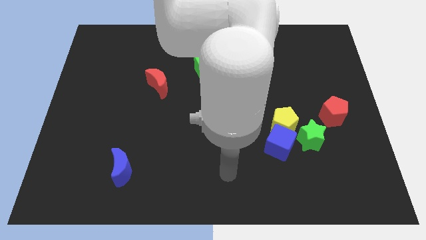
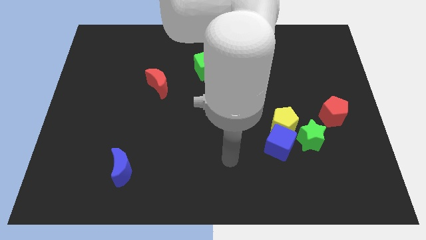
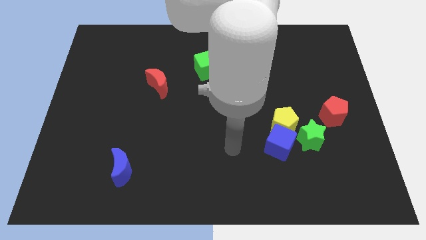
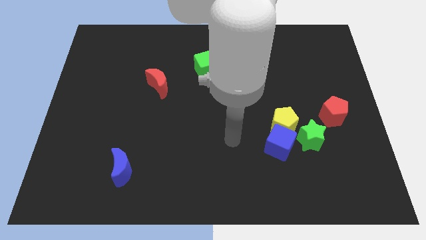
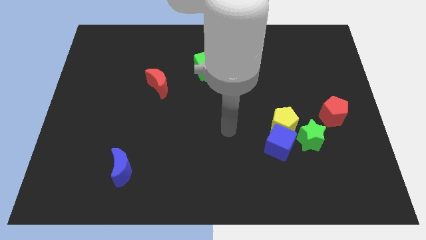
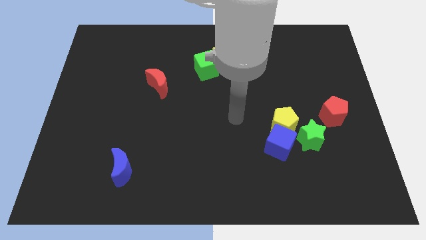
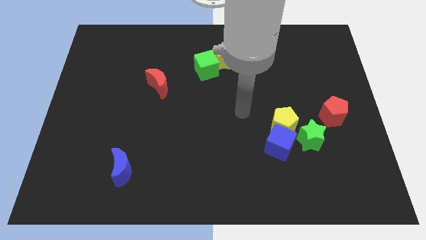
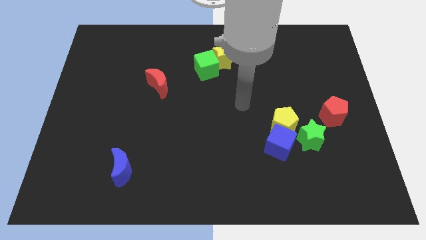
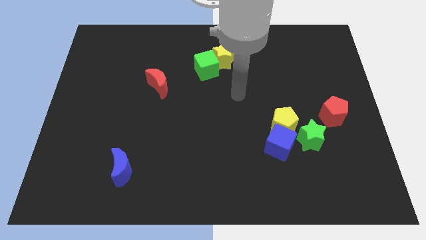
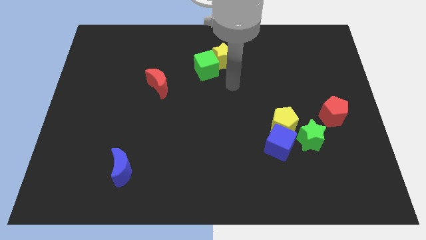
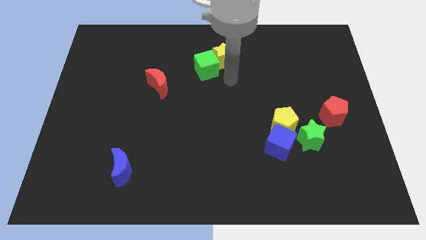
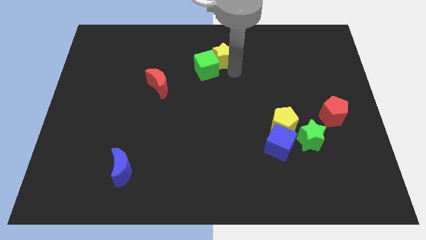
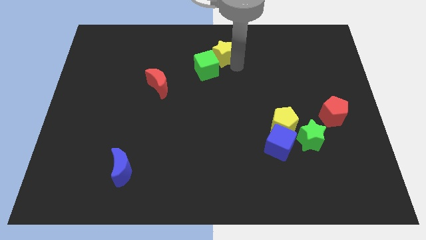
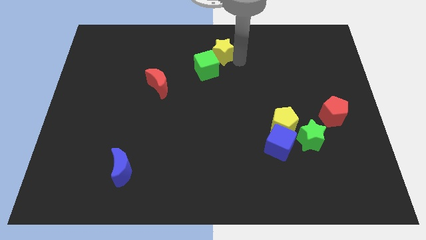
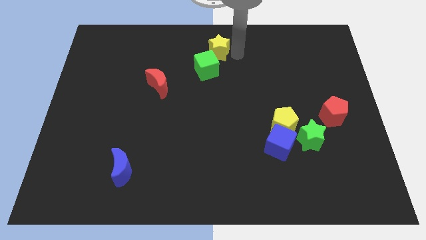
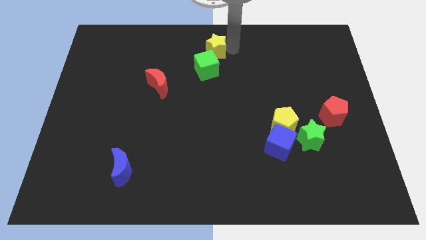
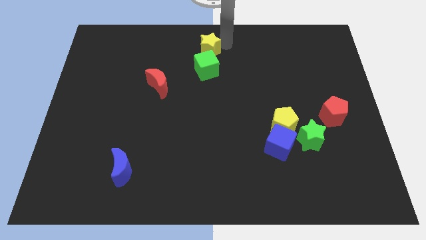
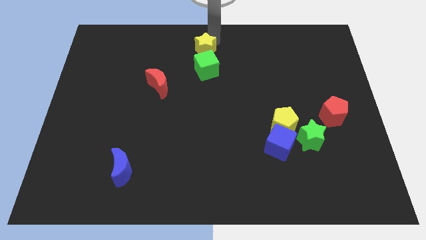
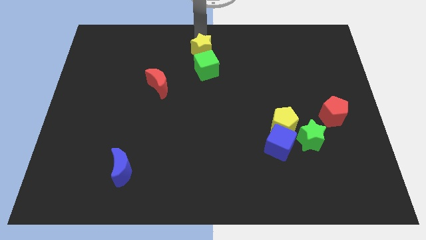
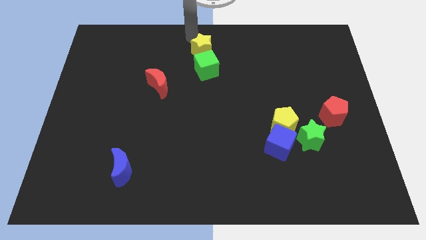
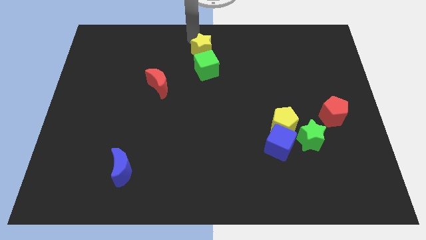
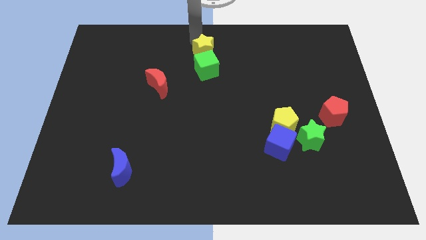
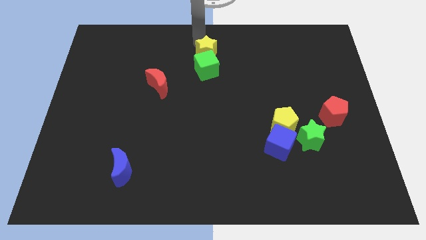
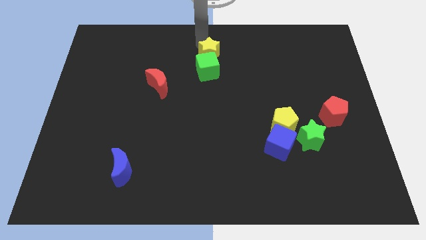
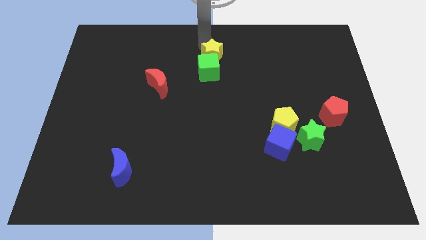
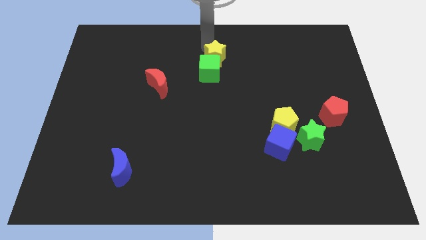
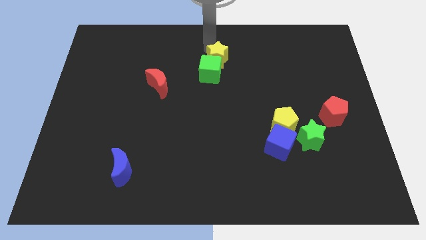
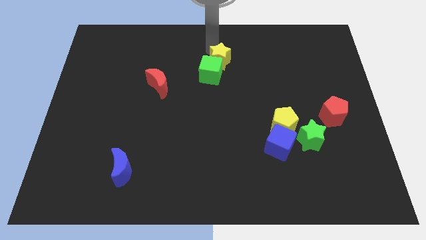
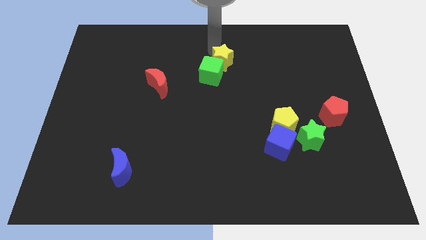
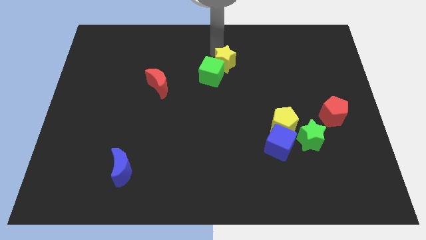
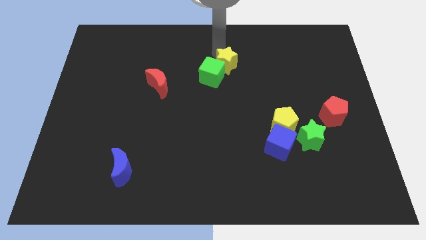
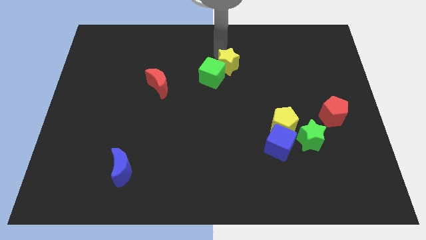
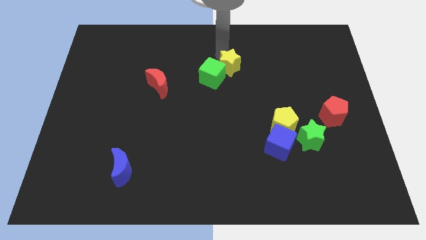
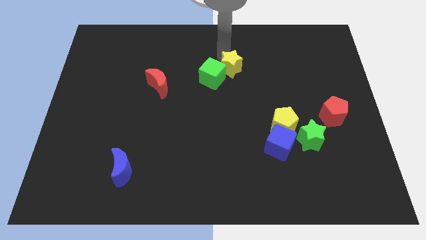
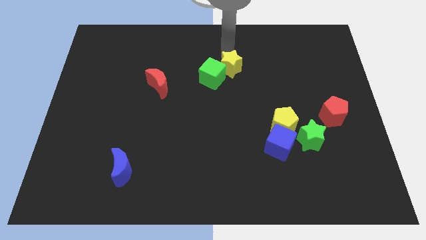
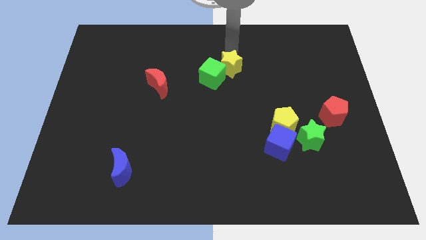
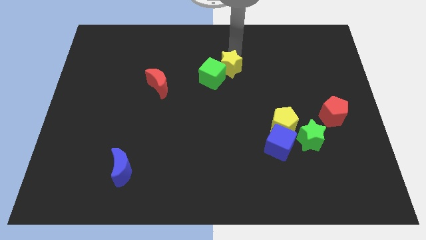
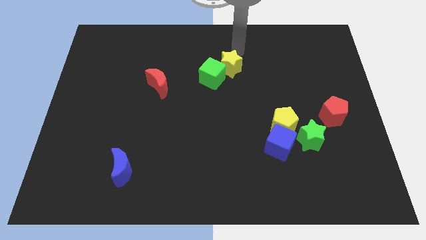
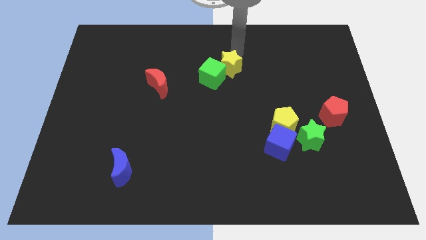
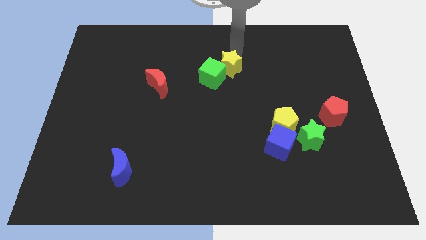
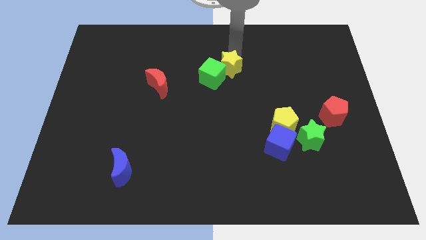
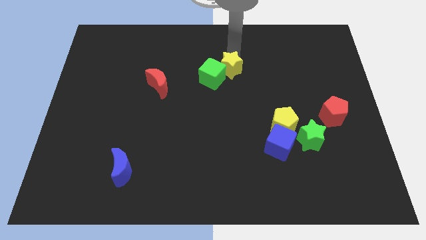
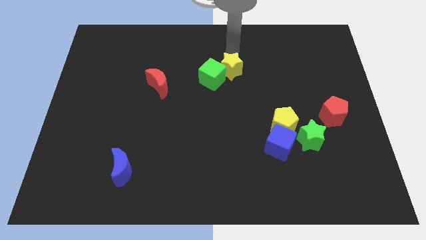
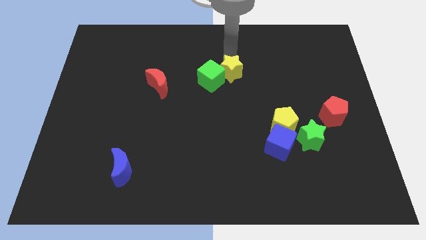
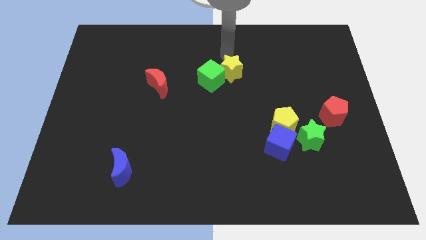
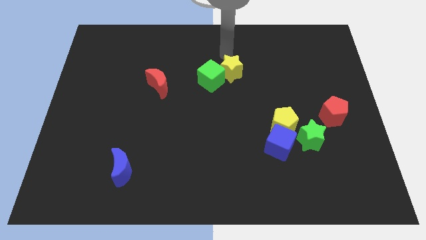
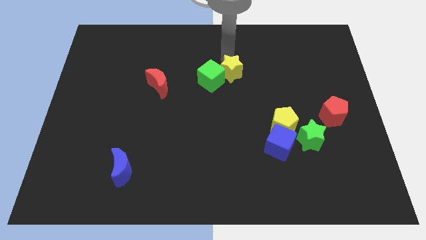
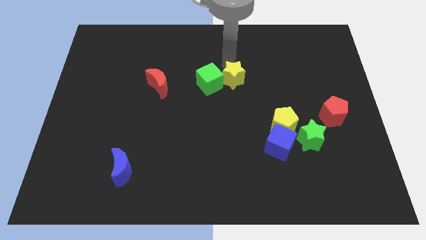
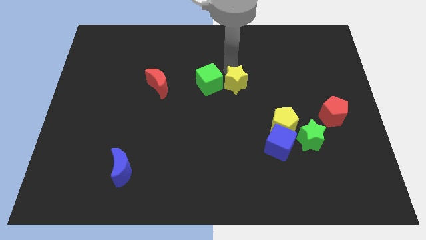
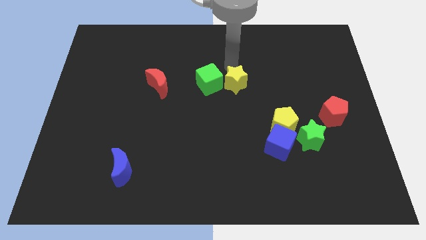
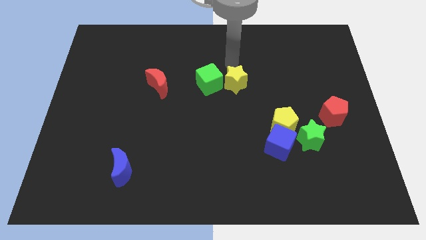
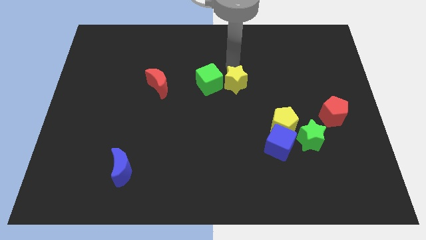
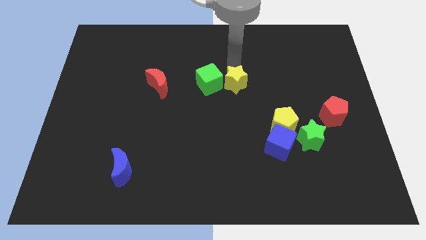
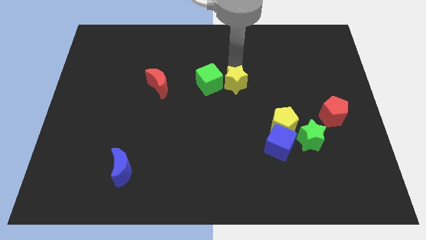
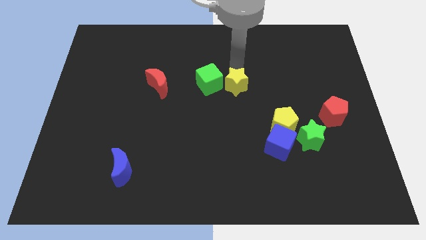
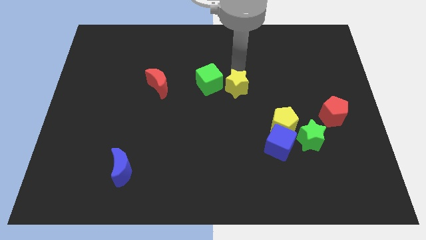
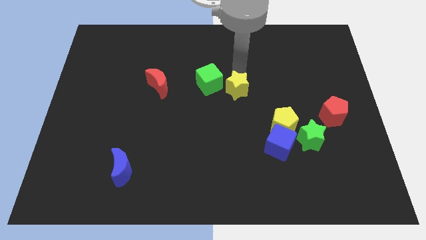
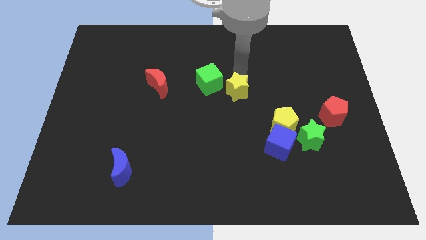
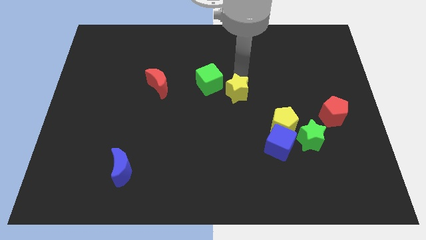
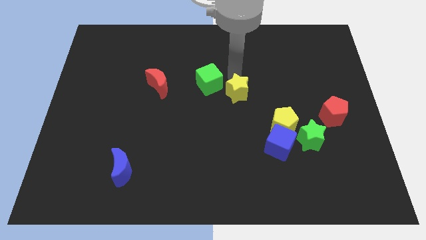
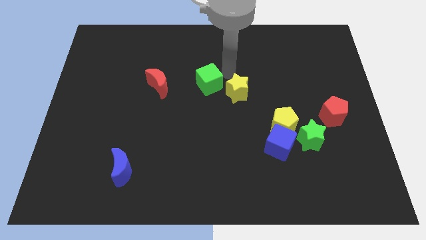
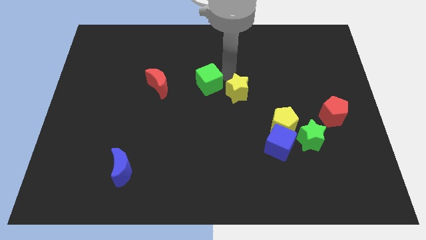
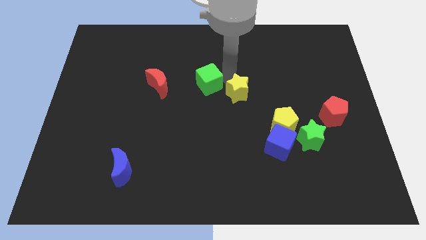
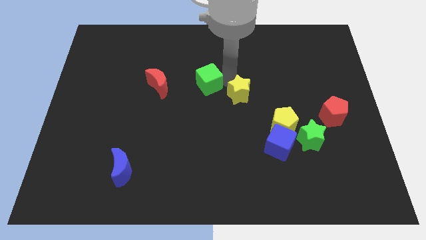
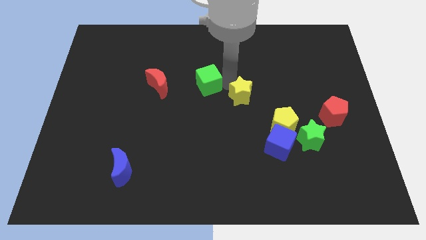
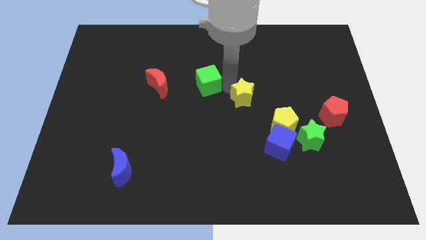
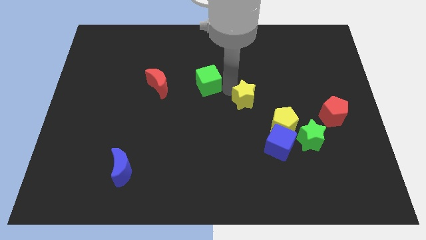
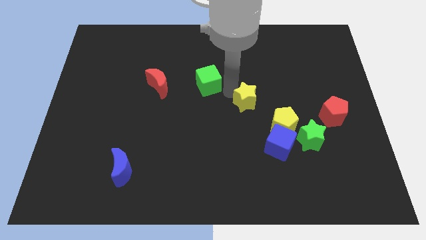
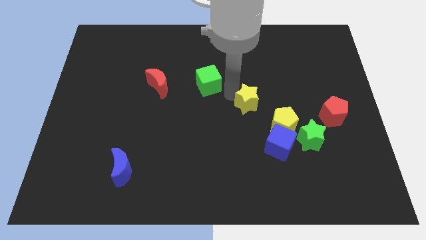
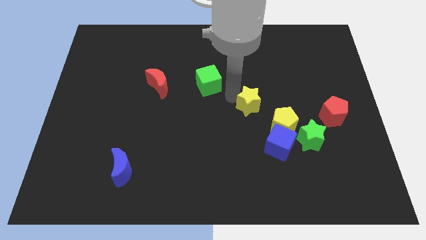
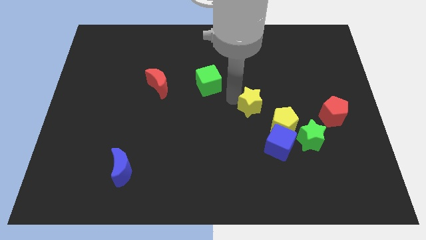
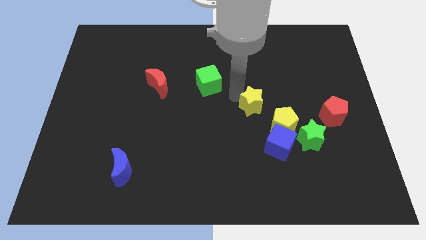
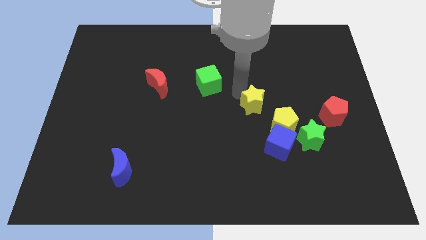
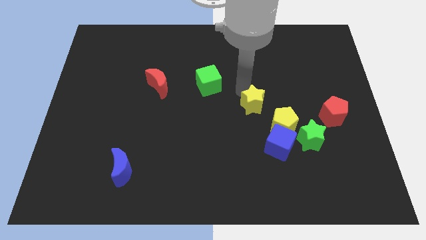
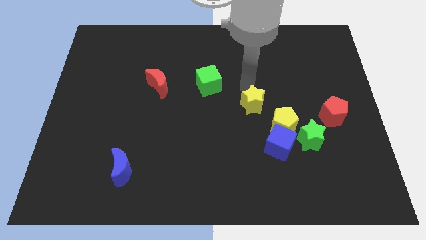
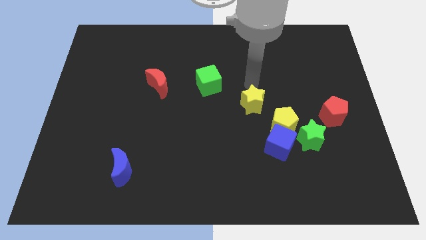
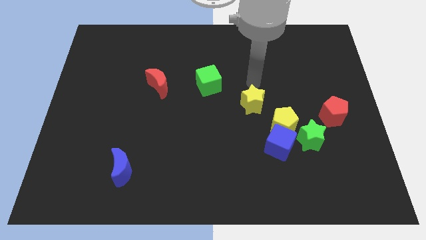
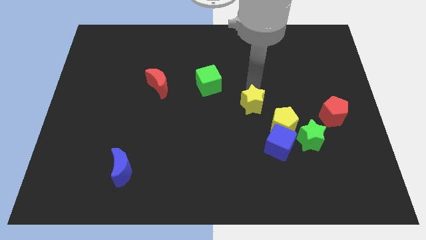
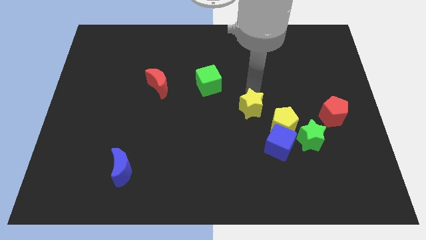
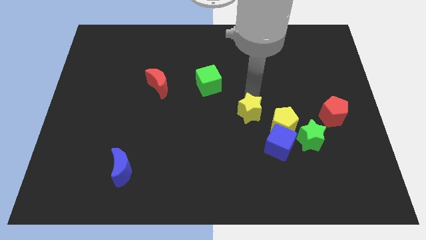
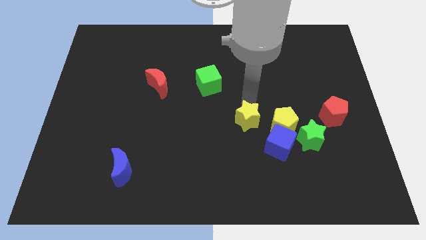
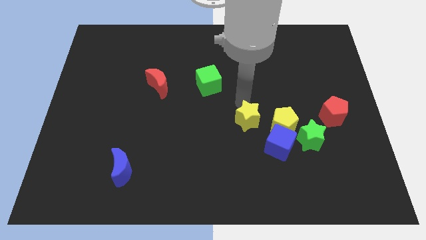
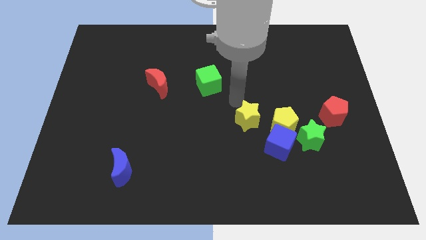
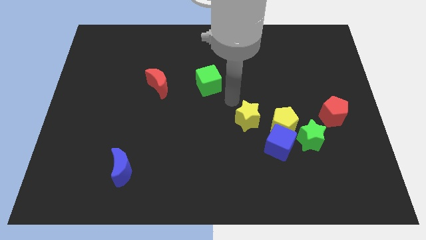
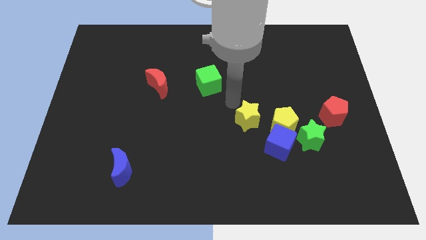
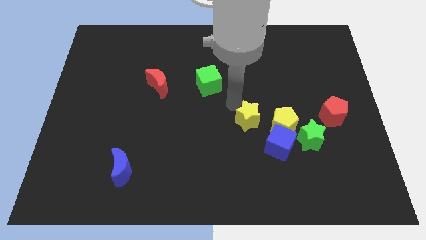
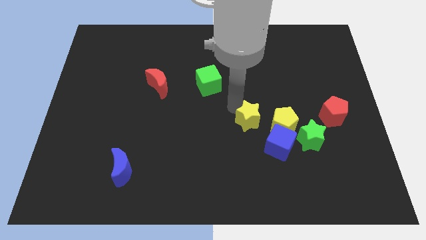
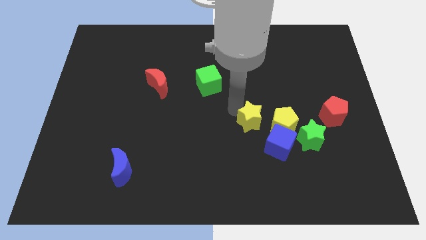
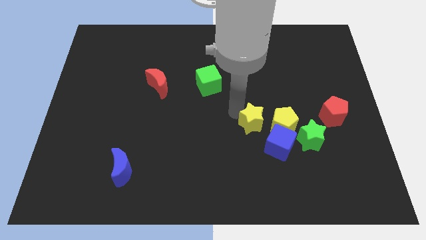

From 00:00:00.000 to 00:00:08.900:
put the yellow star left of the green star
